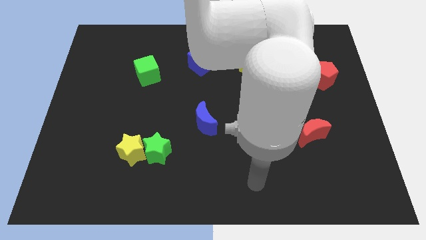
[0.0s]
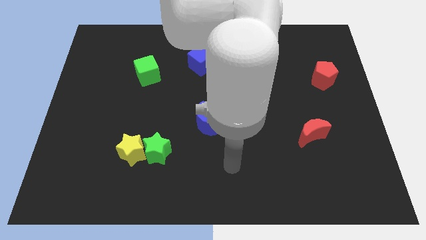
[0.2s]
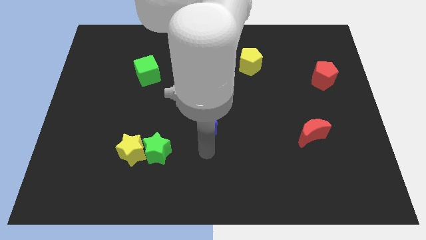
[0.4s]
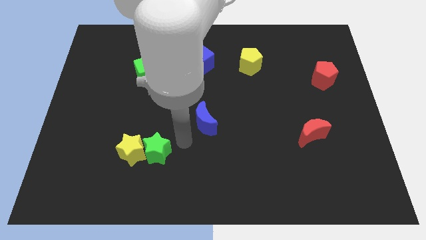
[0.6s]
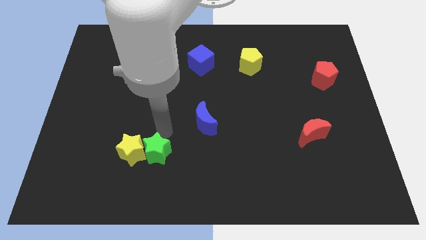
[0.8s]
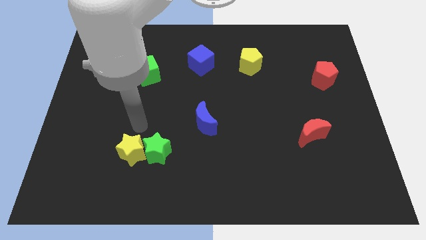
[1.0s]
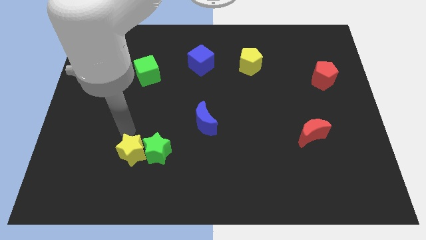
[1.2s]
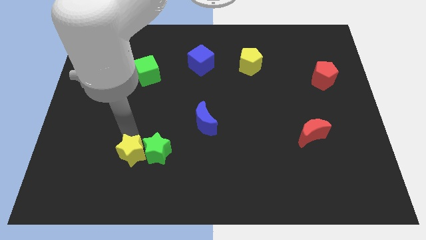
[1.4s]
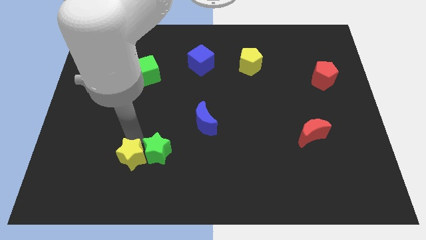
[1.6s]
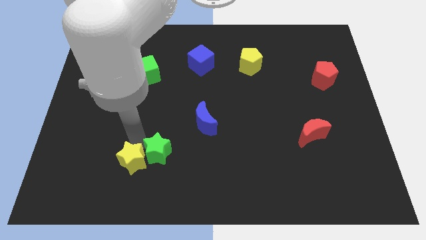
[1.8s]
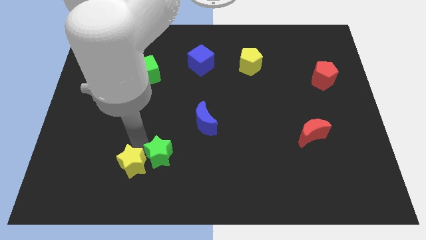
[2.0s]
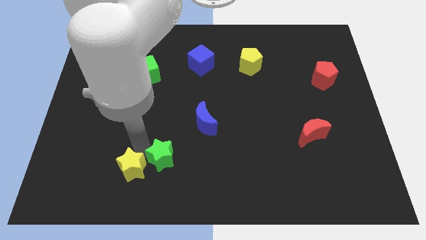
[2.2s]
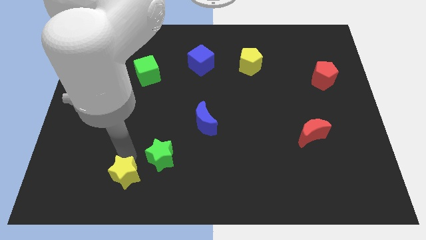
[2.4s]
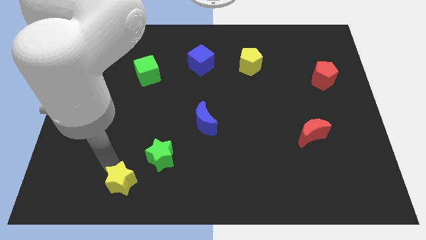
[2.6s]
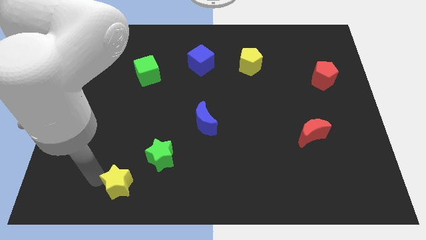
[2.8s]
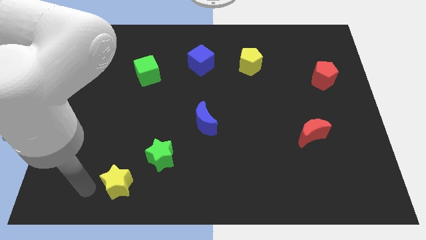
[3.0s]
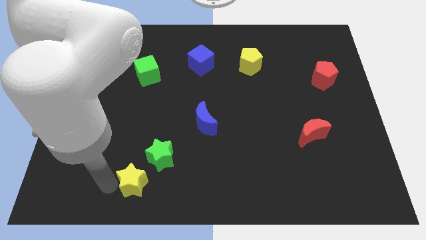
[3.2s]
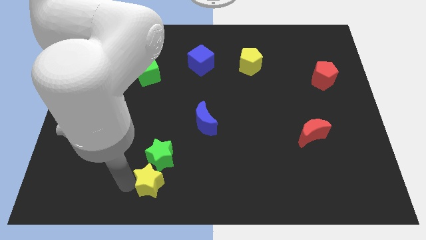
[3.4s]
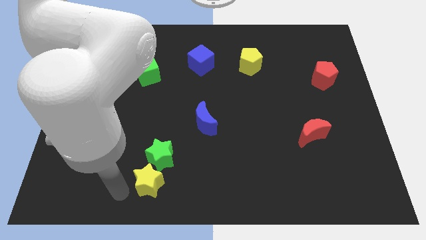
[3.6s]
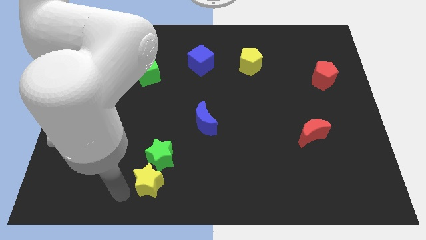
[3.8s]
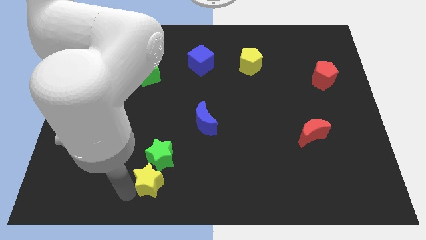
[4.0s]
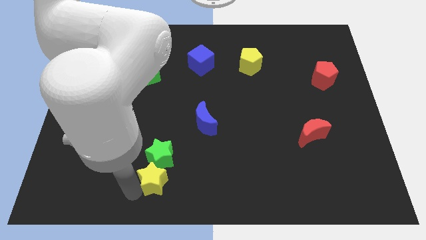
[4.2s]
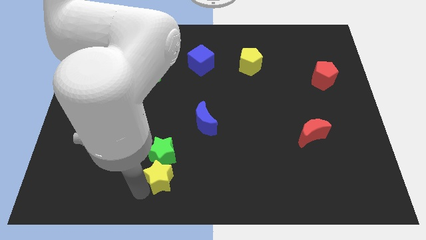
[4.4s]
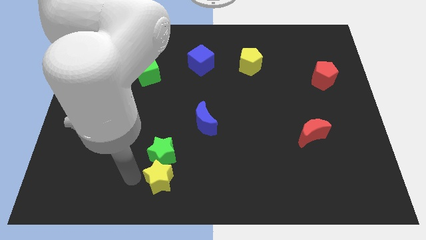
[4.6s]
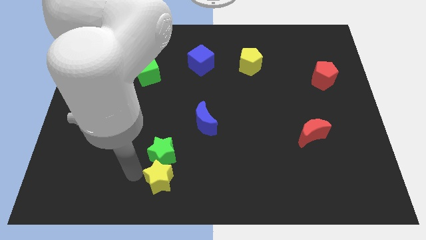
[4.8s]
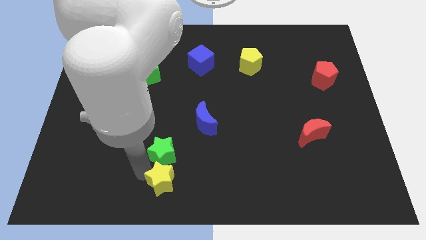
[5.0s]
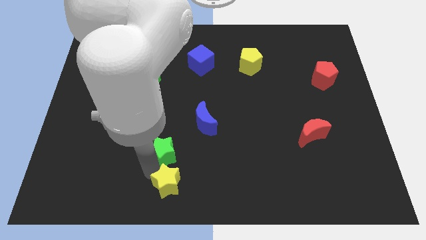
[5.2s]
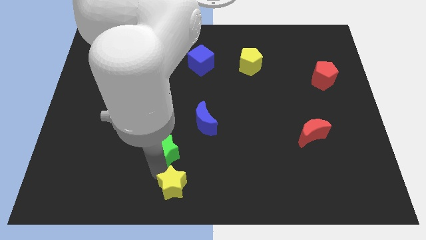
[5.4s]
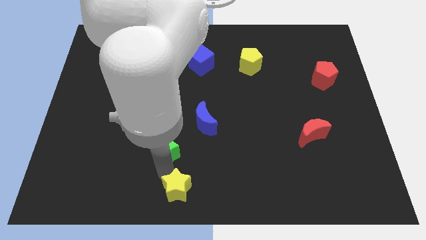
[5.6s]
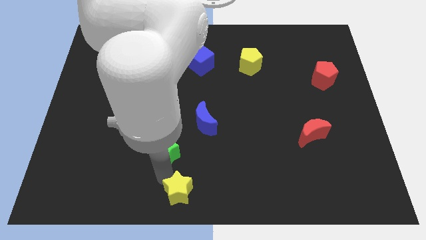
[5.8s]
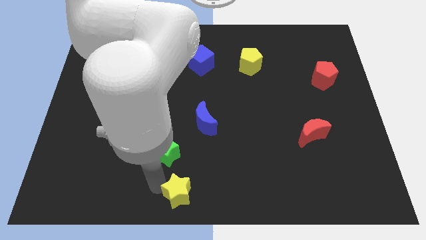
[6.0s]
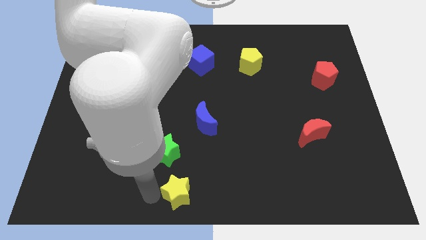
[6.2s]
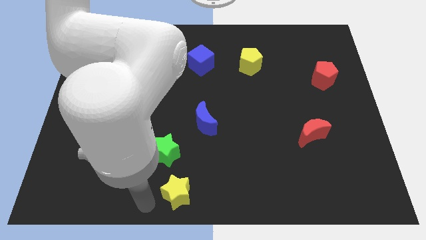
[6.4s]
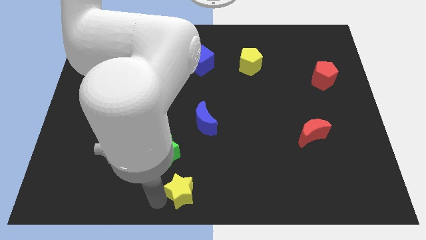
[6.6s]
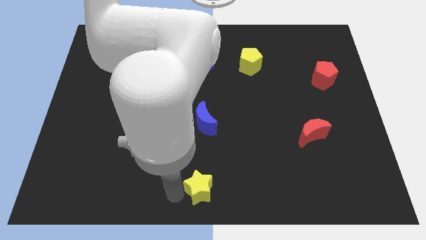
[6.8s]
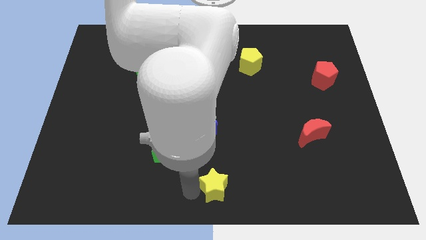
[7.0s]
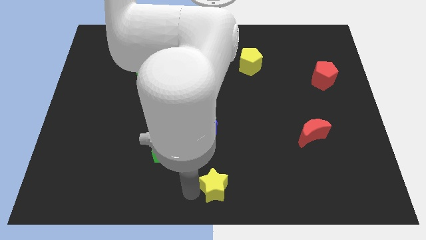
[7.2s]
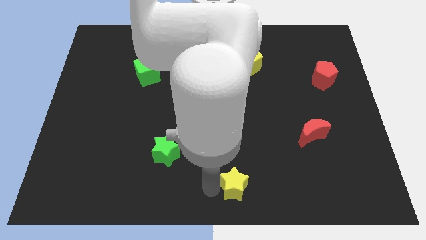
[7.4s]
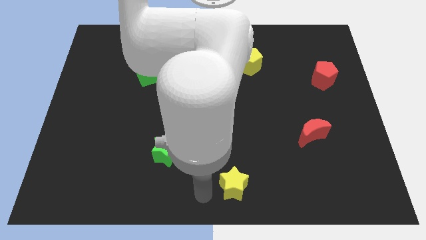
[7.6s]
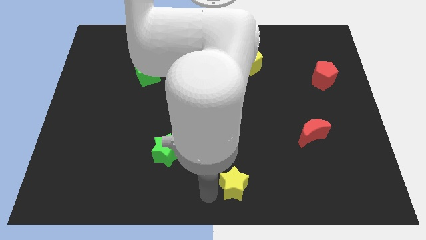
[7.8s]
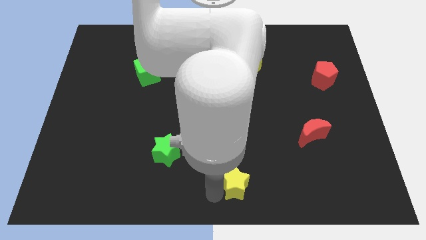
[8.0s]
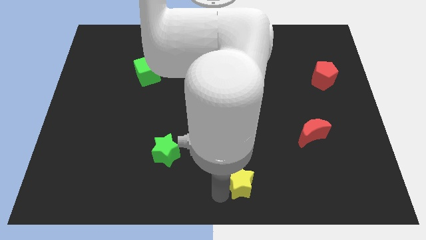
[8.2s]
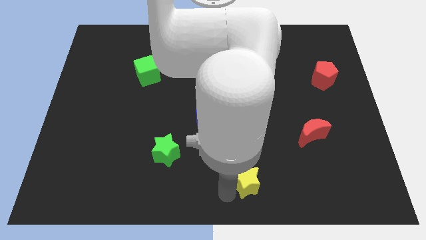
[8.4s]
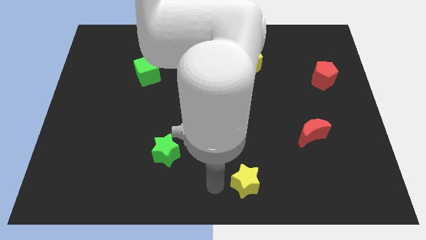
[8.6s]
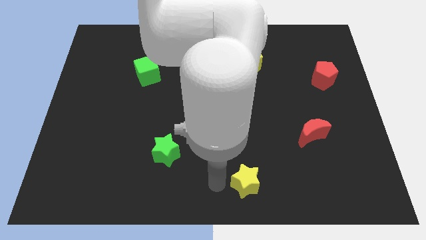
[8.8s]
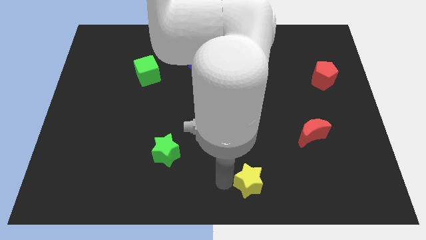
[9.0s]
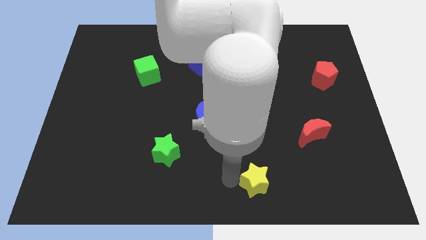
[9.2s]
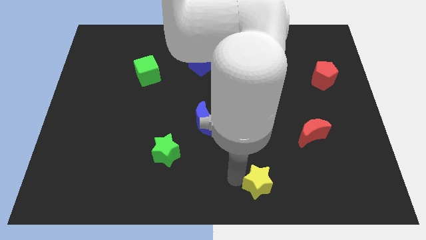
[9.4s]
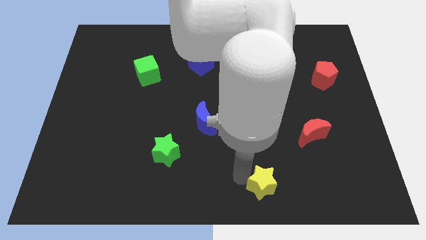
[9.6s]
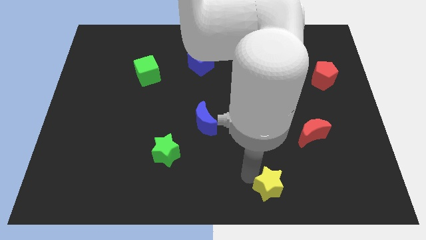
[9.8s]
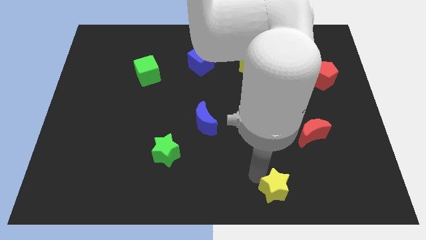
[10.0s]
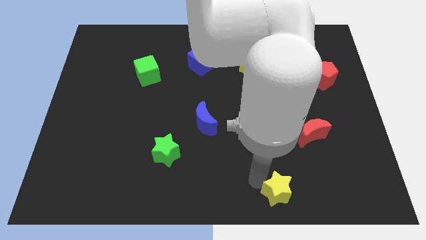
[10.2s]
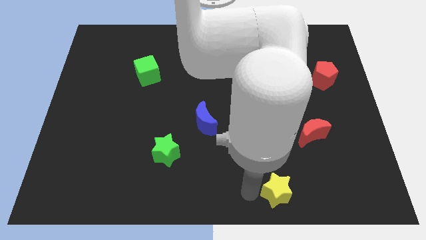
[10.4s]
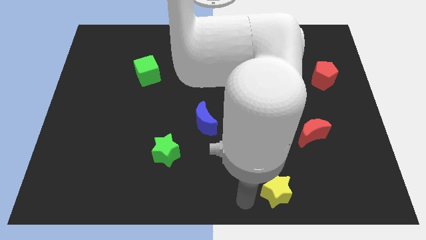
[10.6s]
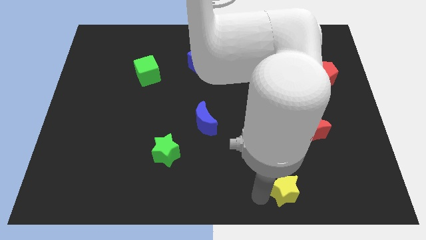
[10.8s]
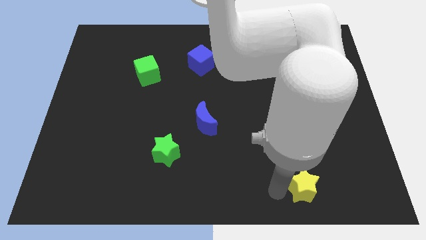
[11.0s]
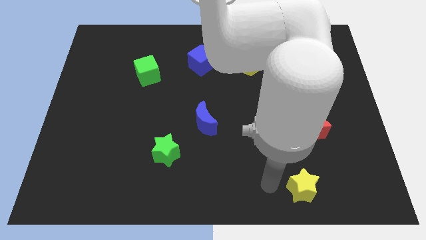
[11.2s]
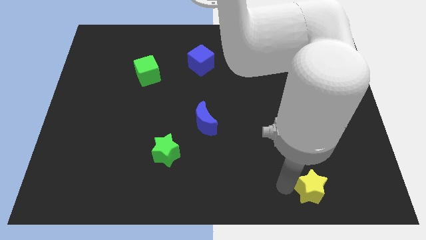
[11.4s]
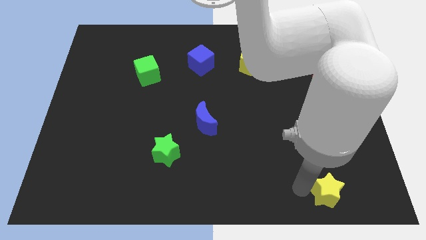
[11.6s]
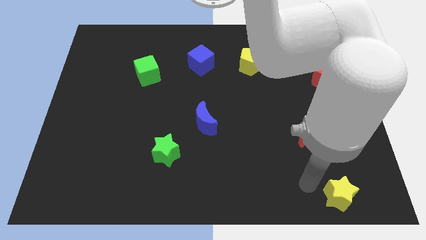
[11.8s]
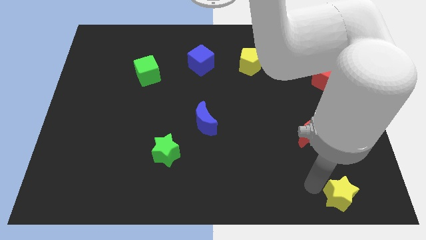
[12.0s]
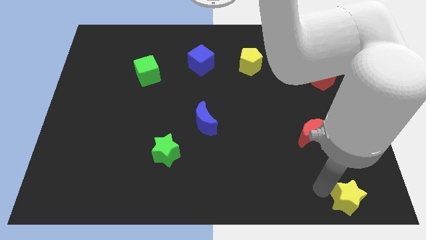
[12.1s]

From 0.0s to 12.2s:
push the yellow star to the bottom right corner
